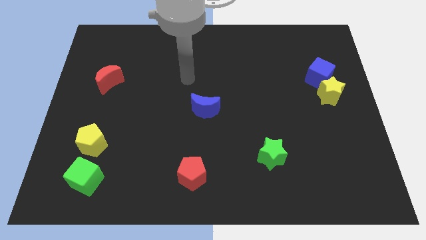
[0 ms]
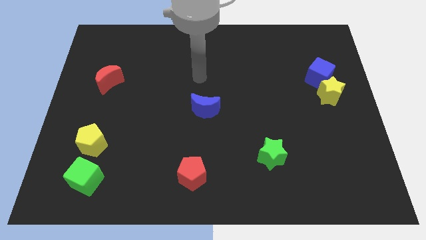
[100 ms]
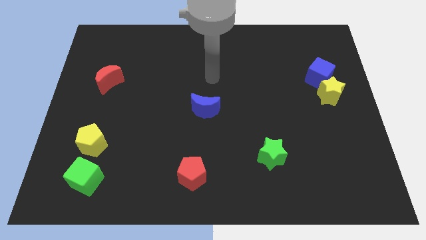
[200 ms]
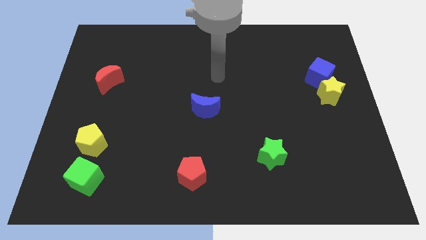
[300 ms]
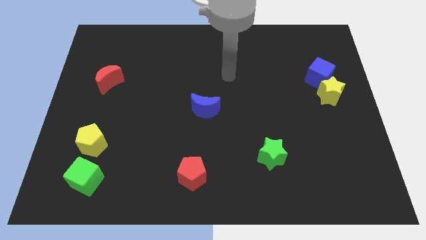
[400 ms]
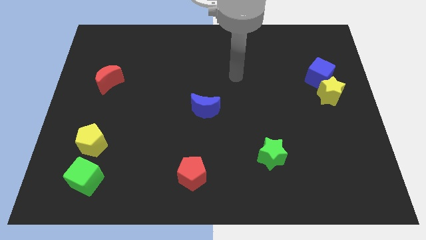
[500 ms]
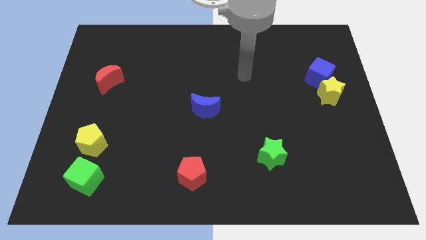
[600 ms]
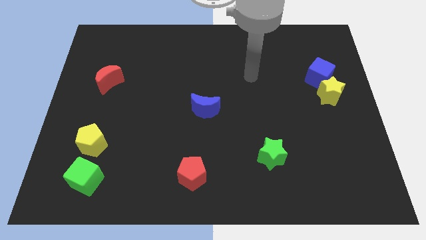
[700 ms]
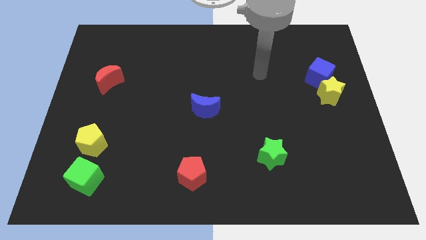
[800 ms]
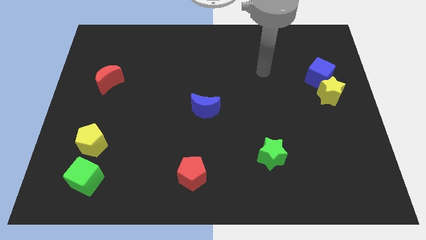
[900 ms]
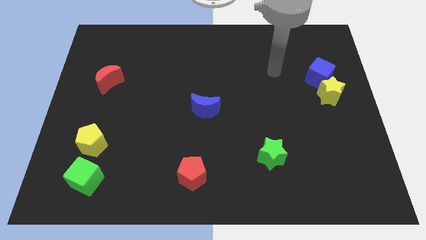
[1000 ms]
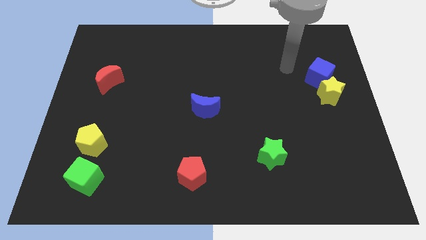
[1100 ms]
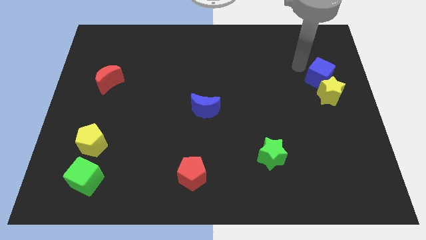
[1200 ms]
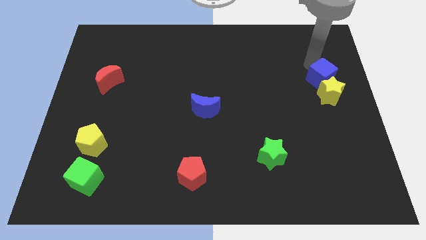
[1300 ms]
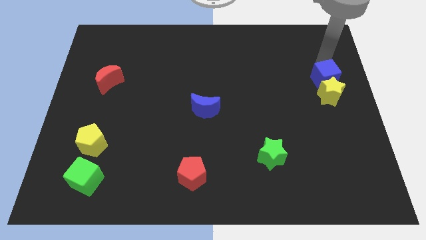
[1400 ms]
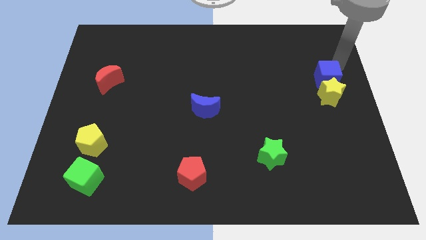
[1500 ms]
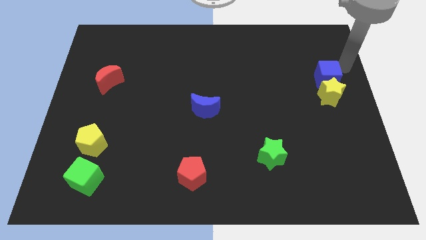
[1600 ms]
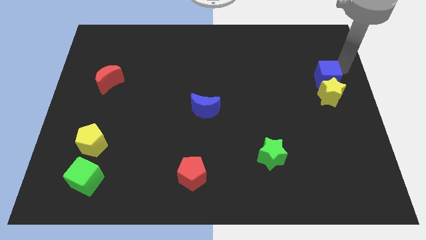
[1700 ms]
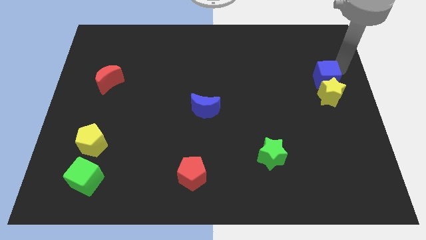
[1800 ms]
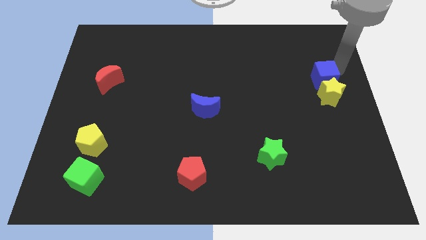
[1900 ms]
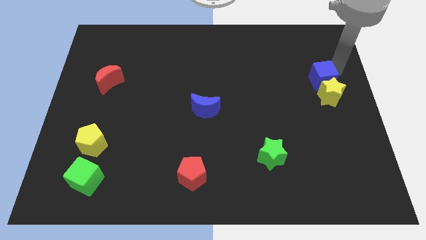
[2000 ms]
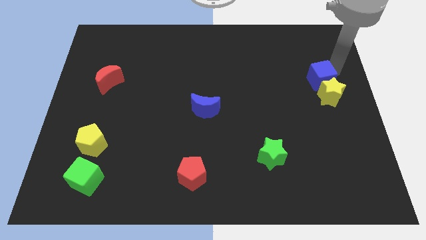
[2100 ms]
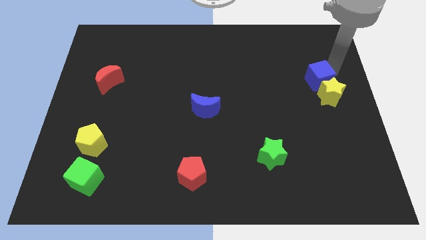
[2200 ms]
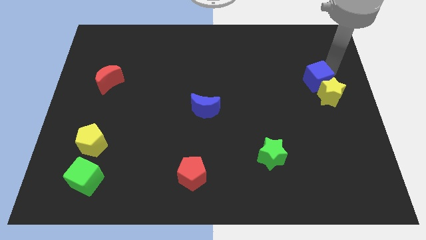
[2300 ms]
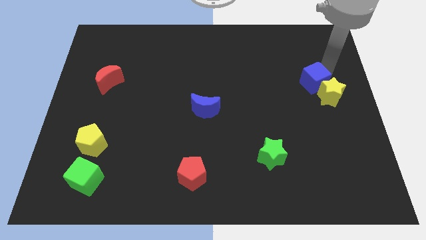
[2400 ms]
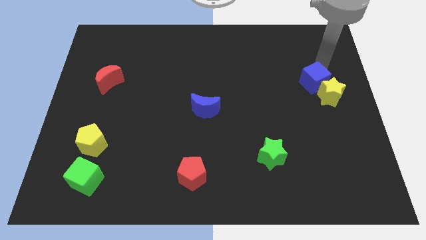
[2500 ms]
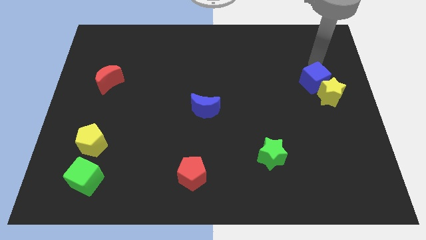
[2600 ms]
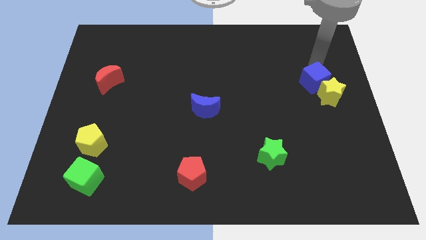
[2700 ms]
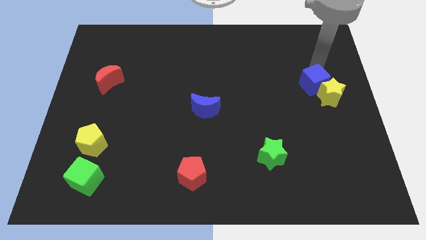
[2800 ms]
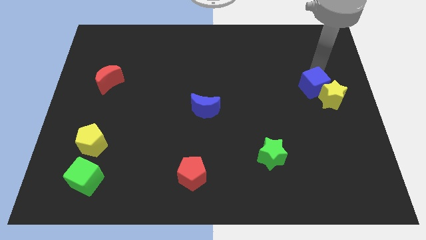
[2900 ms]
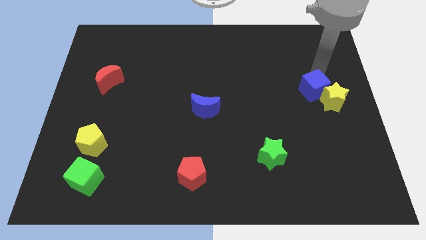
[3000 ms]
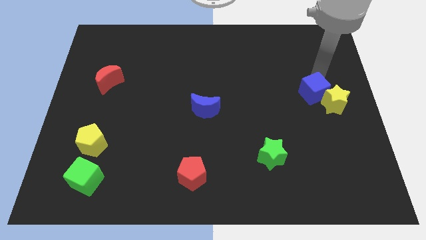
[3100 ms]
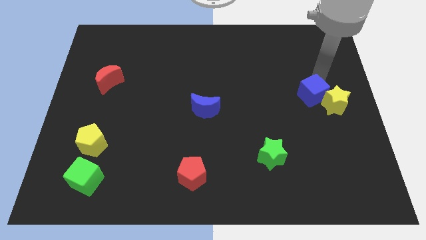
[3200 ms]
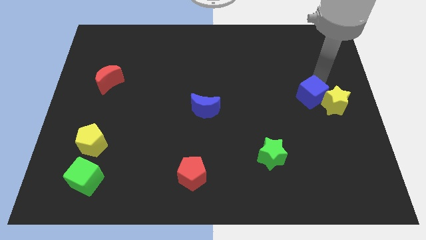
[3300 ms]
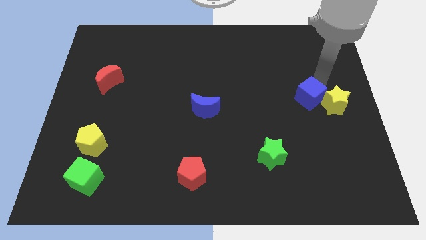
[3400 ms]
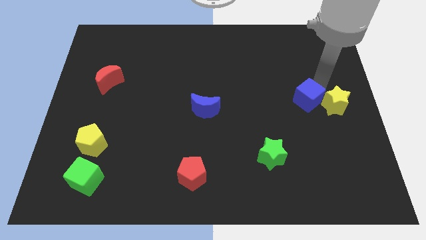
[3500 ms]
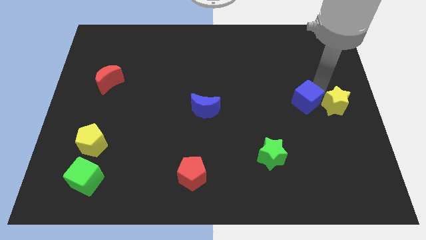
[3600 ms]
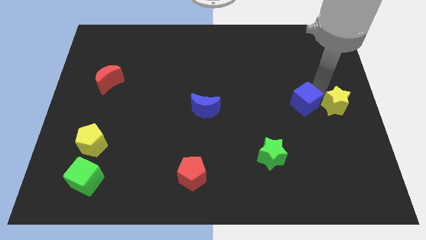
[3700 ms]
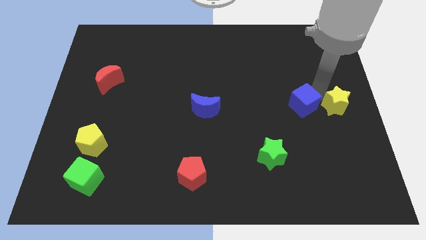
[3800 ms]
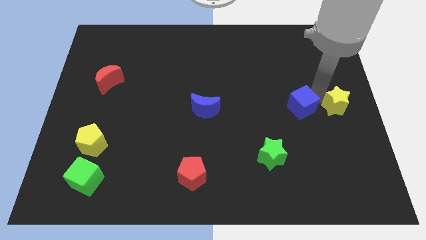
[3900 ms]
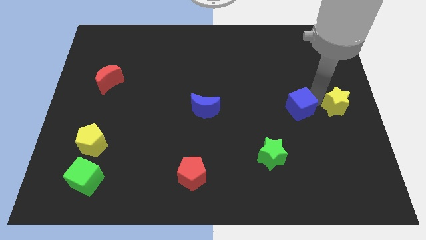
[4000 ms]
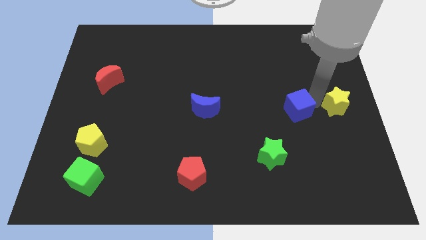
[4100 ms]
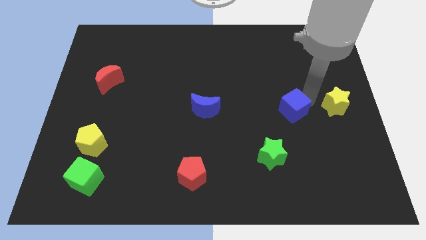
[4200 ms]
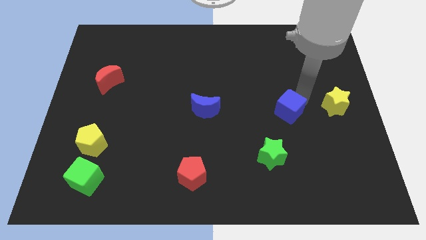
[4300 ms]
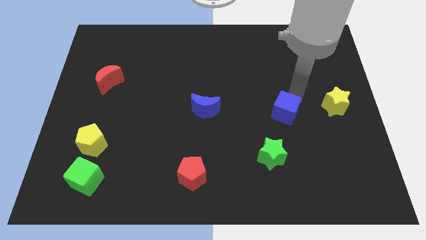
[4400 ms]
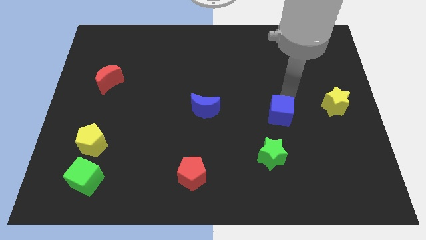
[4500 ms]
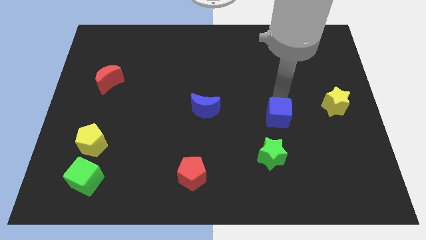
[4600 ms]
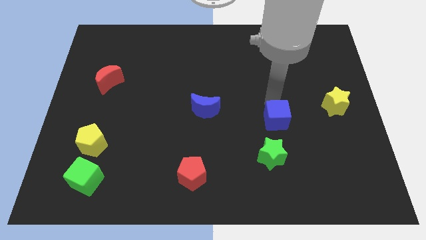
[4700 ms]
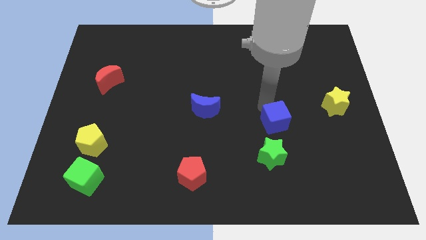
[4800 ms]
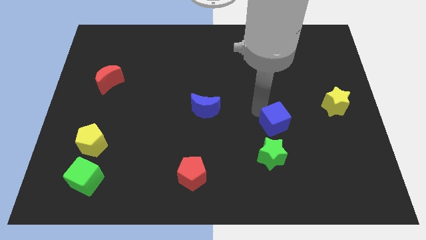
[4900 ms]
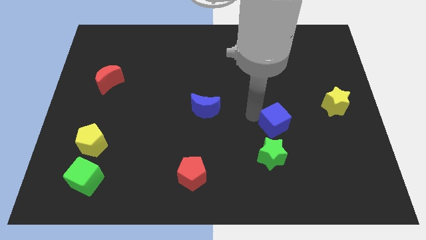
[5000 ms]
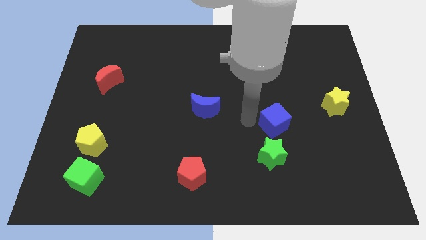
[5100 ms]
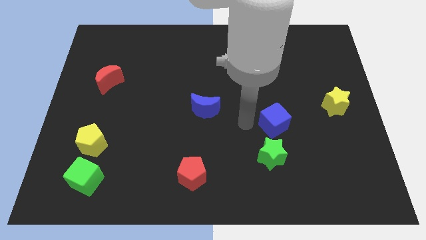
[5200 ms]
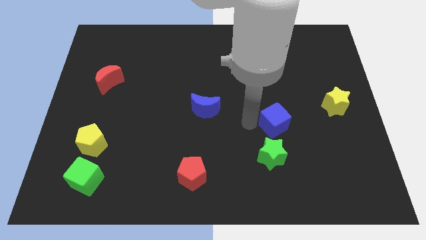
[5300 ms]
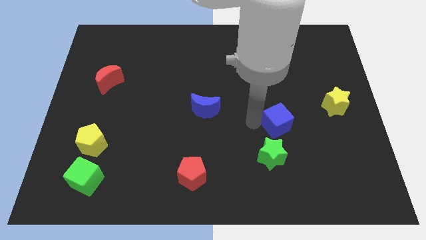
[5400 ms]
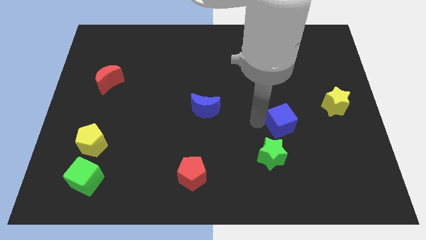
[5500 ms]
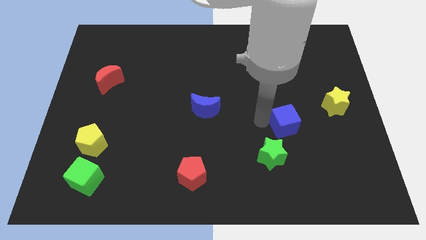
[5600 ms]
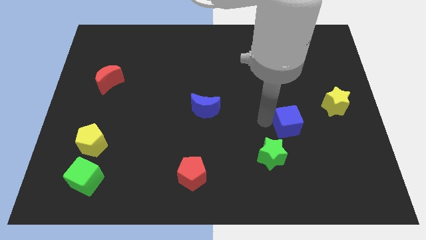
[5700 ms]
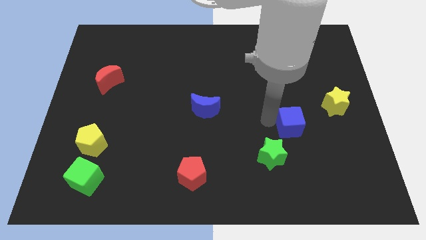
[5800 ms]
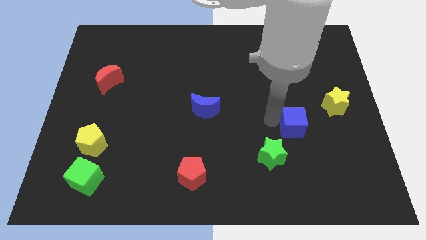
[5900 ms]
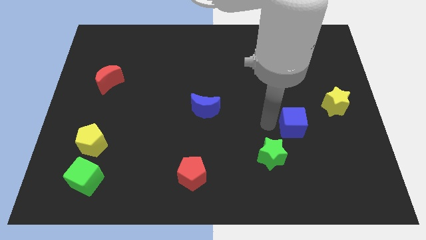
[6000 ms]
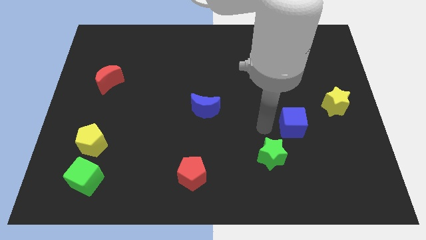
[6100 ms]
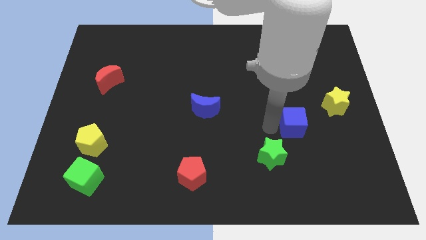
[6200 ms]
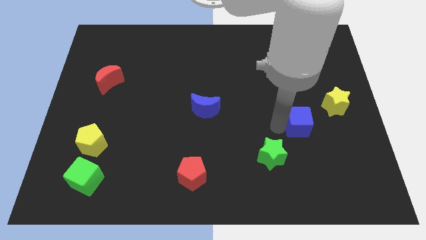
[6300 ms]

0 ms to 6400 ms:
put the blue cube to the bottom left side of the yellow star

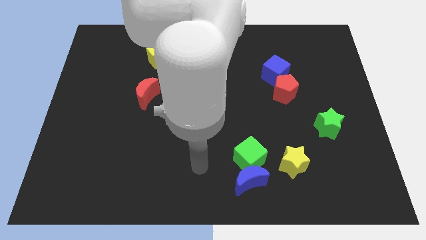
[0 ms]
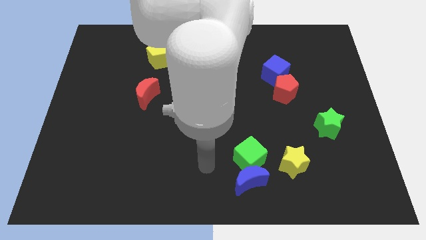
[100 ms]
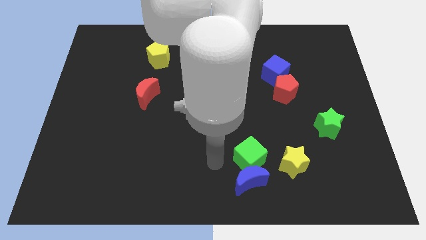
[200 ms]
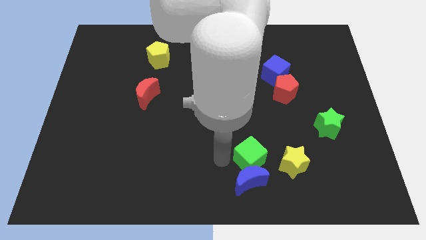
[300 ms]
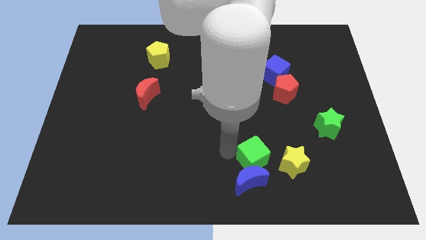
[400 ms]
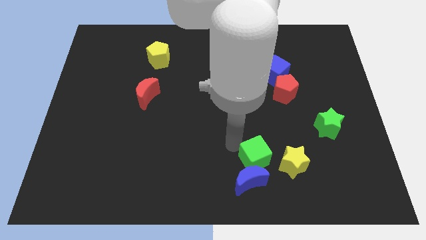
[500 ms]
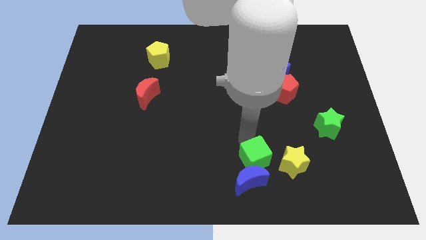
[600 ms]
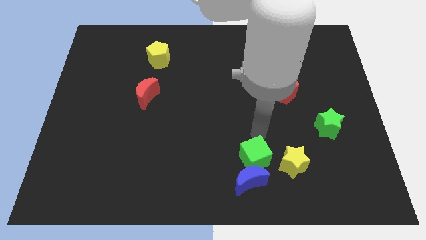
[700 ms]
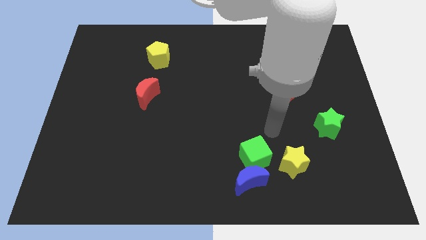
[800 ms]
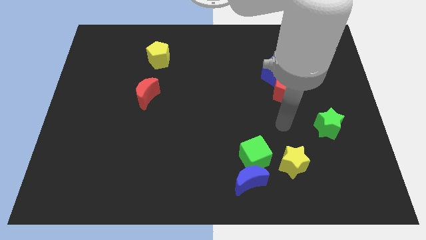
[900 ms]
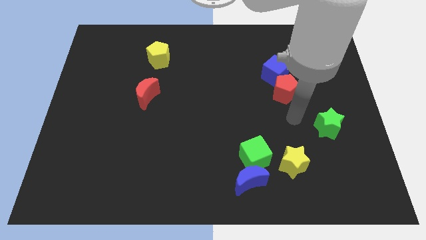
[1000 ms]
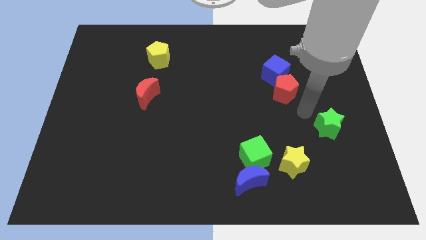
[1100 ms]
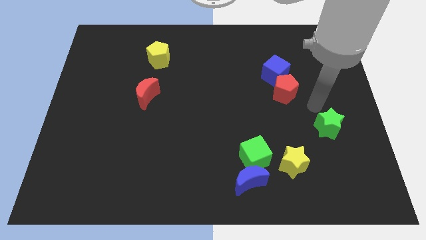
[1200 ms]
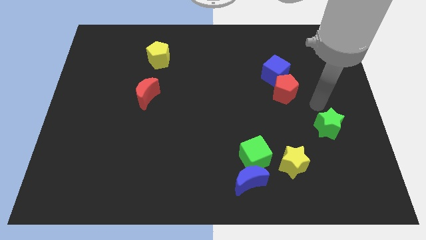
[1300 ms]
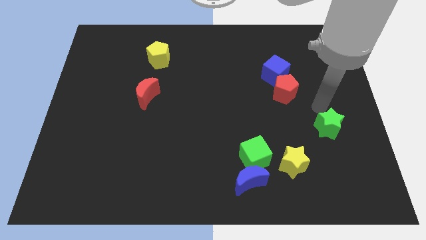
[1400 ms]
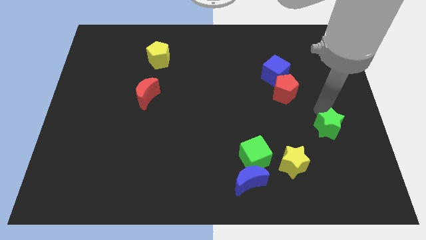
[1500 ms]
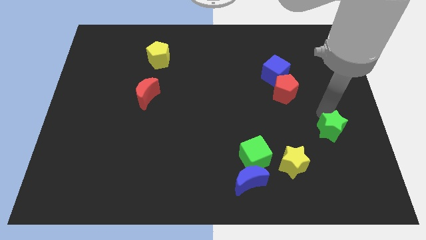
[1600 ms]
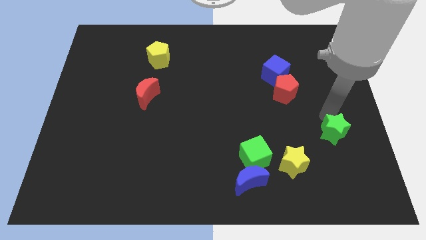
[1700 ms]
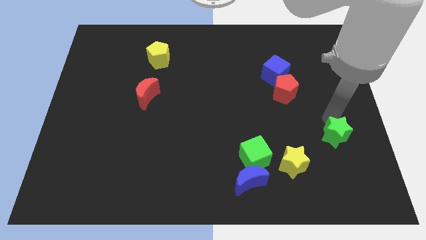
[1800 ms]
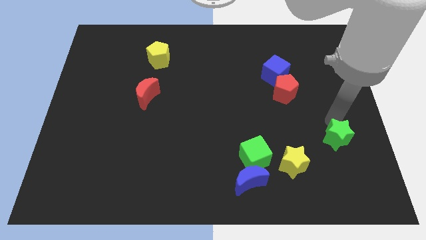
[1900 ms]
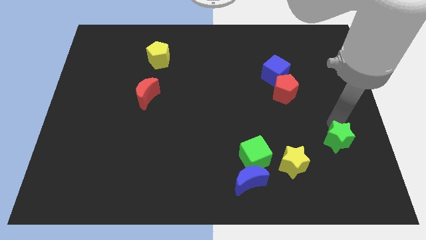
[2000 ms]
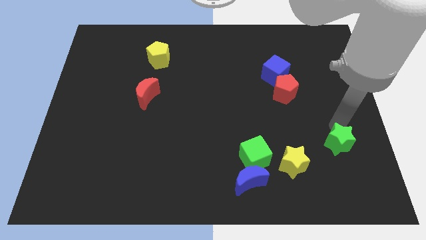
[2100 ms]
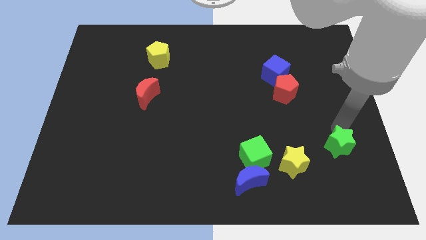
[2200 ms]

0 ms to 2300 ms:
move the green star right of the yellow star
